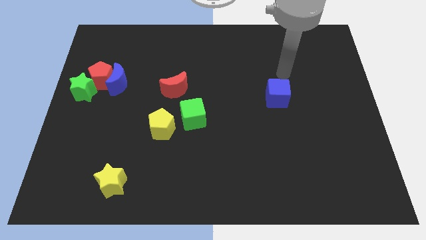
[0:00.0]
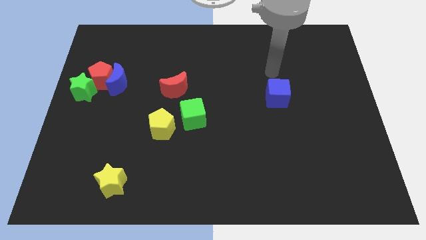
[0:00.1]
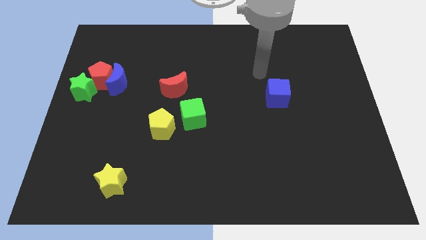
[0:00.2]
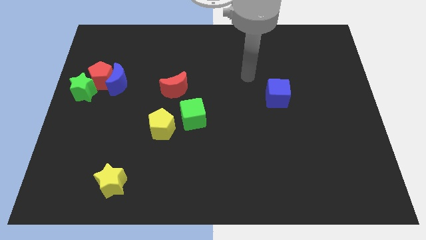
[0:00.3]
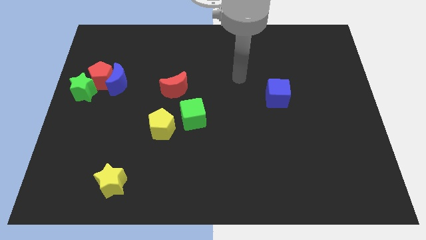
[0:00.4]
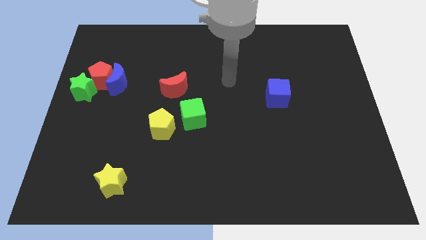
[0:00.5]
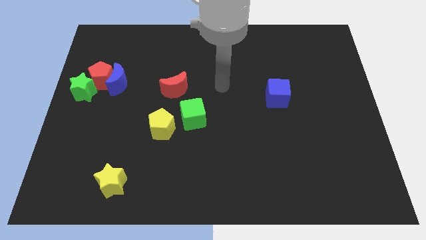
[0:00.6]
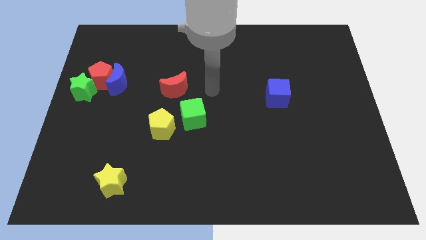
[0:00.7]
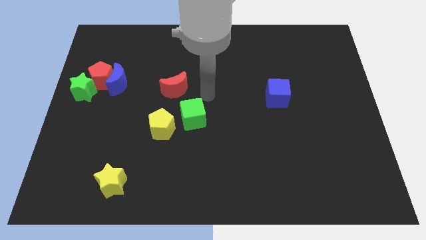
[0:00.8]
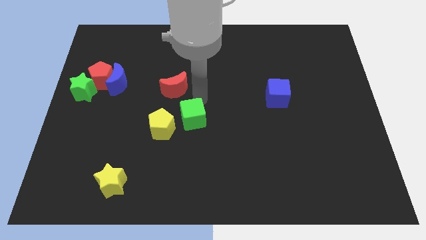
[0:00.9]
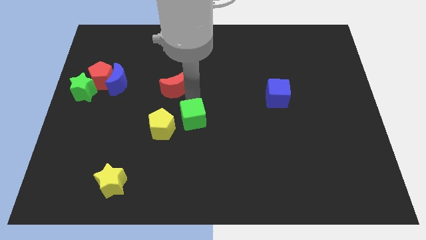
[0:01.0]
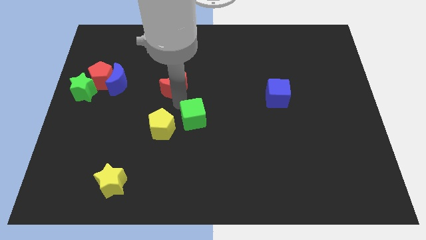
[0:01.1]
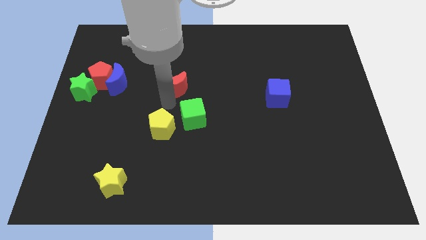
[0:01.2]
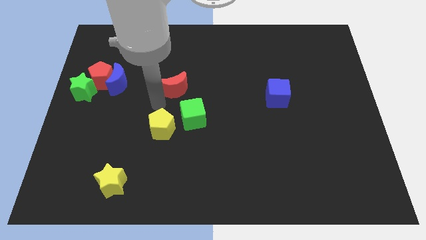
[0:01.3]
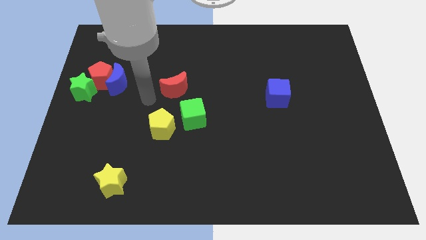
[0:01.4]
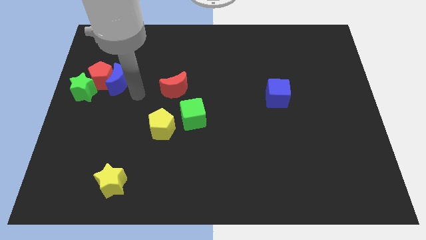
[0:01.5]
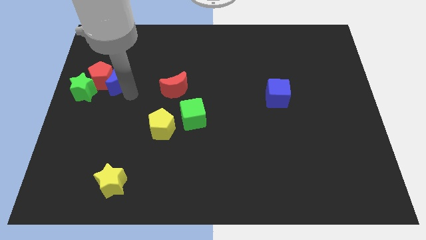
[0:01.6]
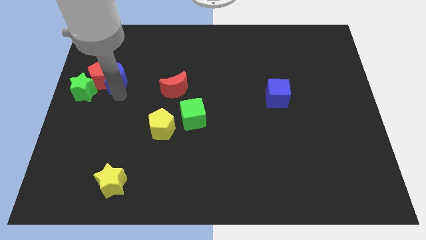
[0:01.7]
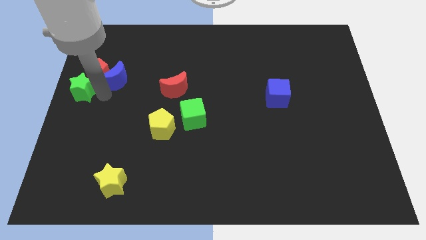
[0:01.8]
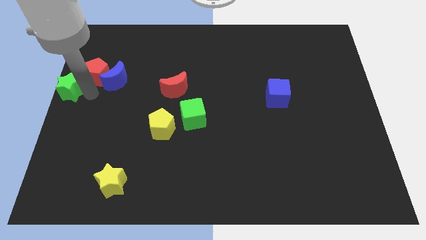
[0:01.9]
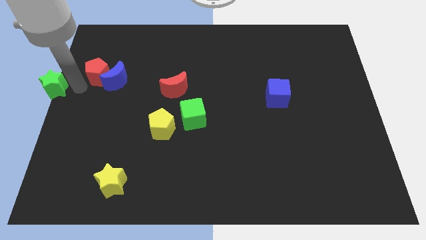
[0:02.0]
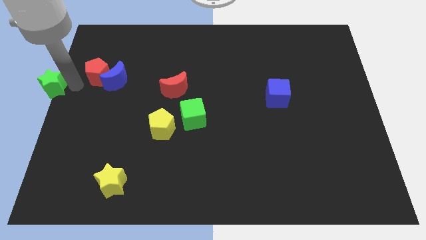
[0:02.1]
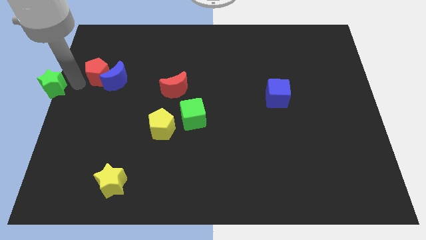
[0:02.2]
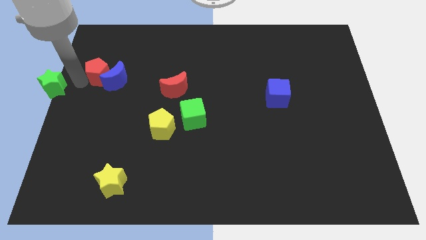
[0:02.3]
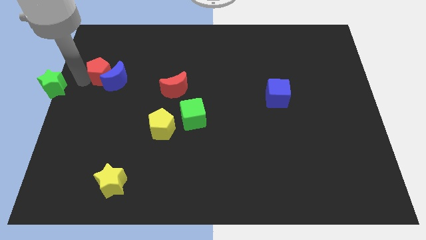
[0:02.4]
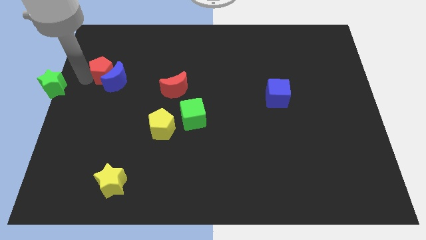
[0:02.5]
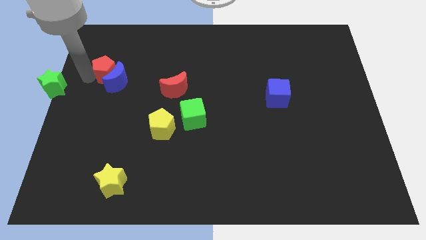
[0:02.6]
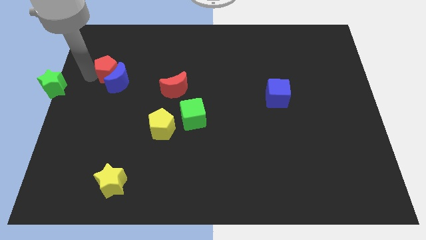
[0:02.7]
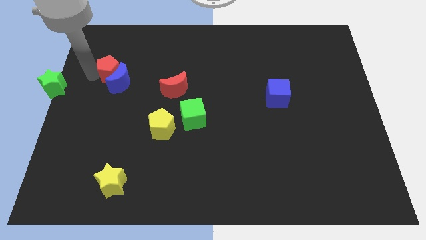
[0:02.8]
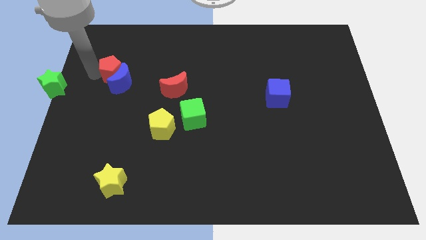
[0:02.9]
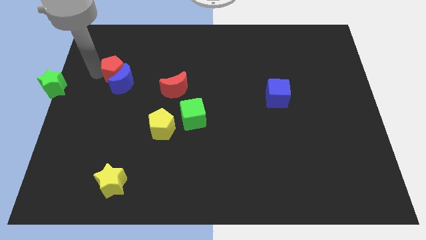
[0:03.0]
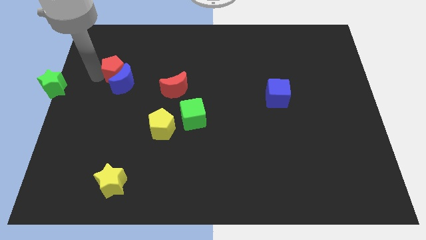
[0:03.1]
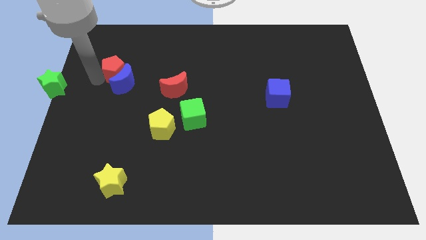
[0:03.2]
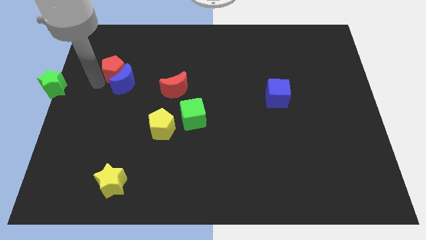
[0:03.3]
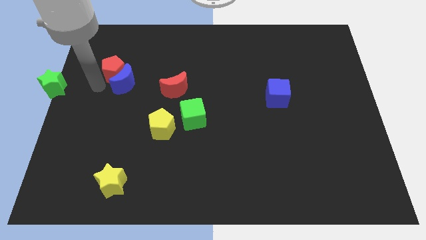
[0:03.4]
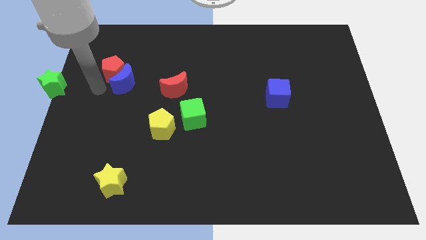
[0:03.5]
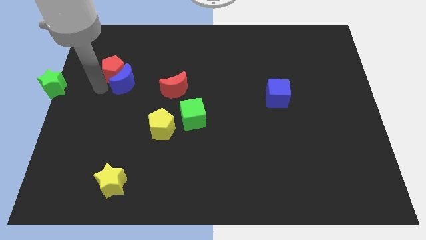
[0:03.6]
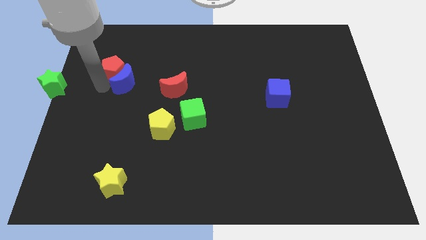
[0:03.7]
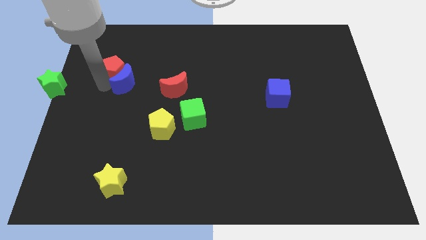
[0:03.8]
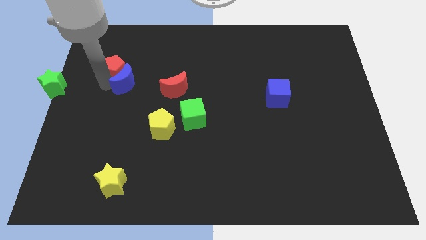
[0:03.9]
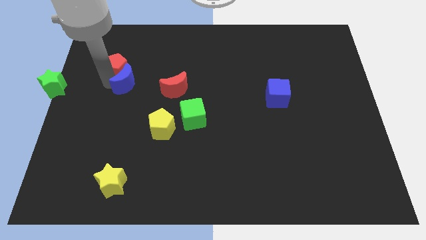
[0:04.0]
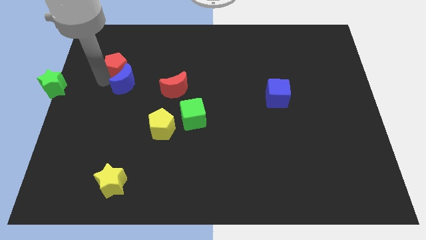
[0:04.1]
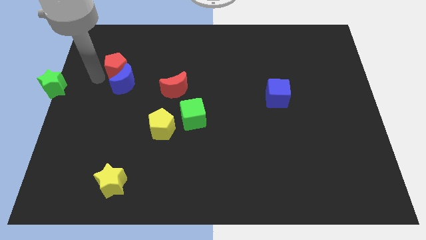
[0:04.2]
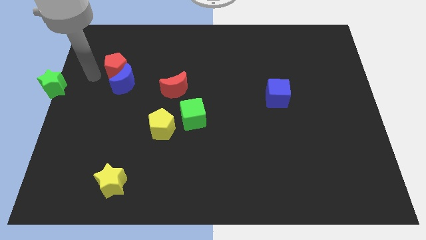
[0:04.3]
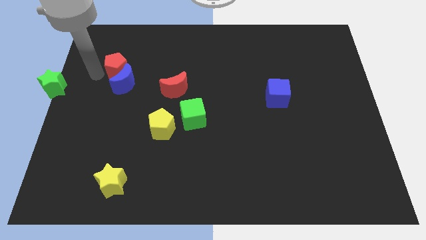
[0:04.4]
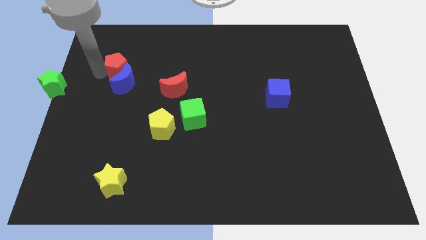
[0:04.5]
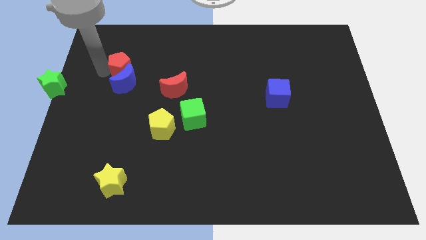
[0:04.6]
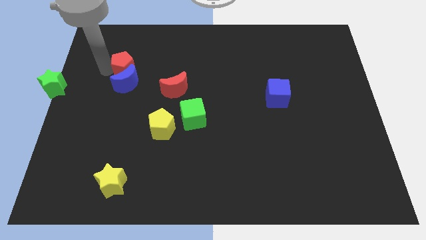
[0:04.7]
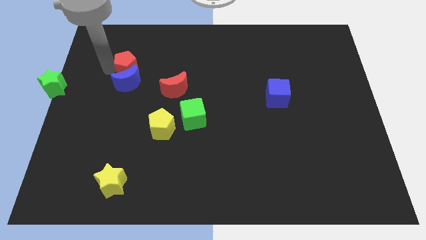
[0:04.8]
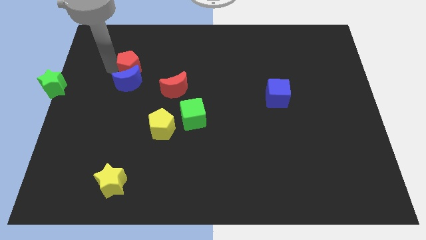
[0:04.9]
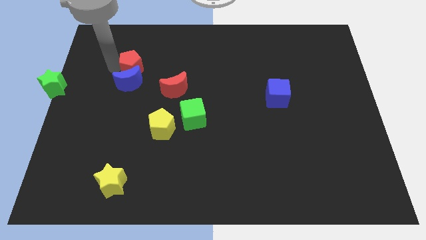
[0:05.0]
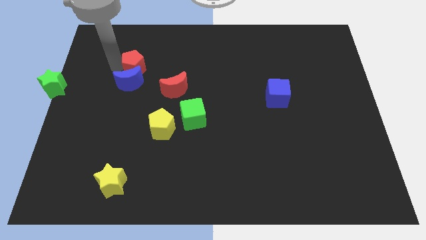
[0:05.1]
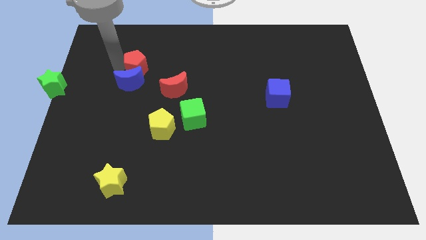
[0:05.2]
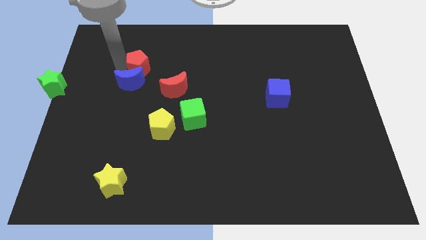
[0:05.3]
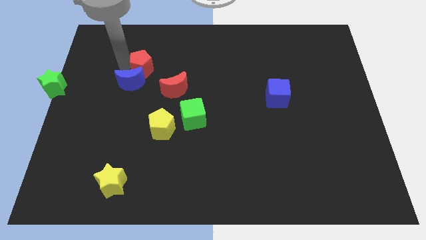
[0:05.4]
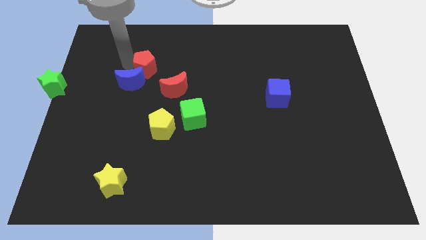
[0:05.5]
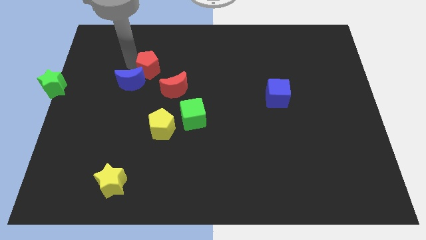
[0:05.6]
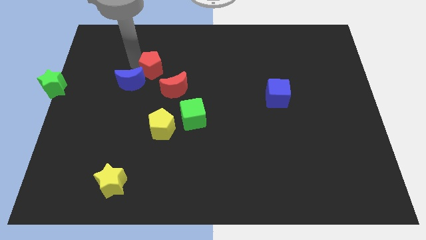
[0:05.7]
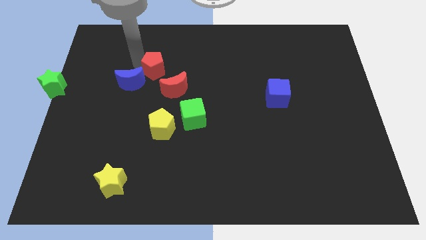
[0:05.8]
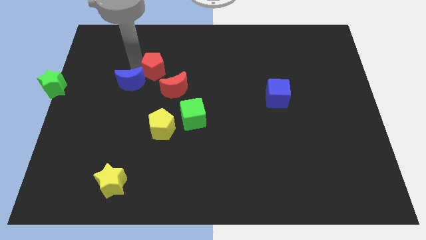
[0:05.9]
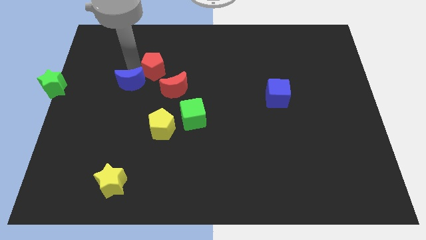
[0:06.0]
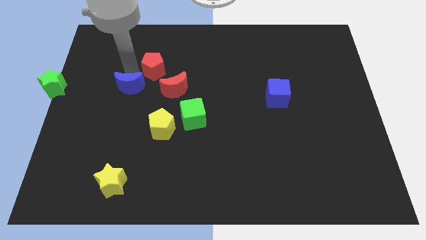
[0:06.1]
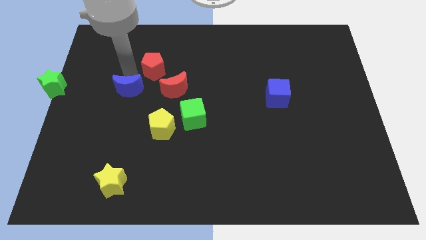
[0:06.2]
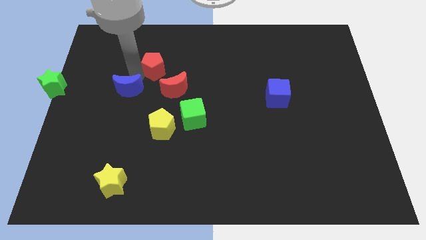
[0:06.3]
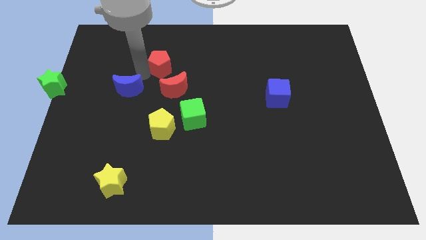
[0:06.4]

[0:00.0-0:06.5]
push the red pentagon to the top of the red moon
